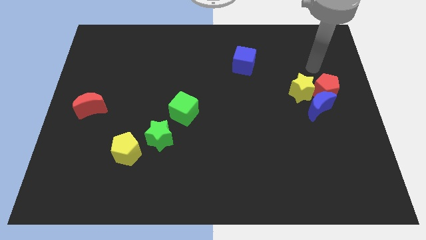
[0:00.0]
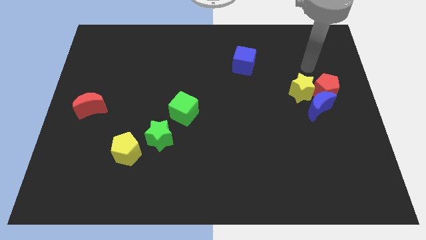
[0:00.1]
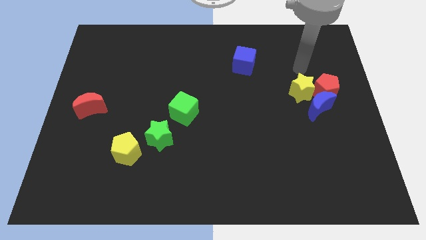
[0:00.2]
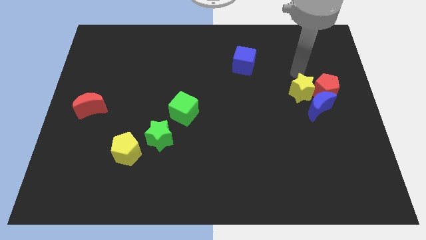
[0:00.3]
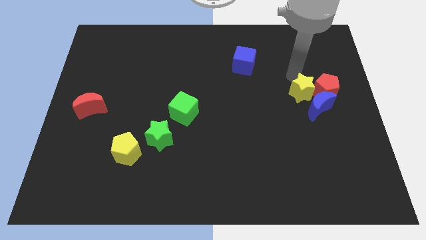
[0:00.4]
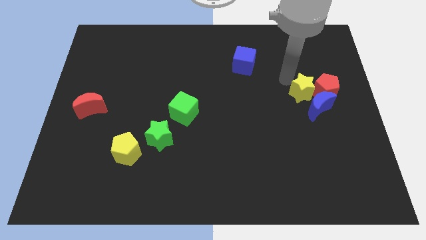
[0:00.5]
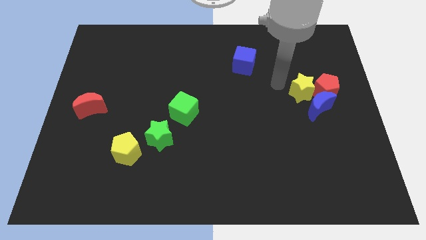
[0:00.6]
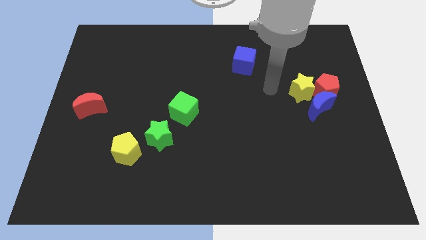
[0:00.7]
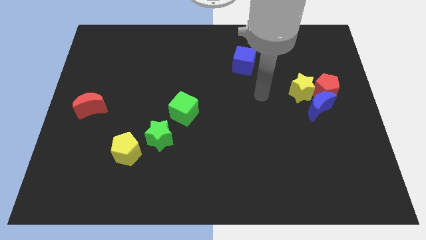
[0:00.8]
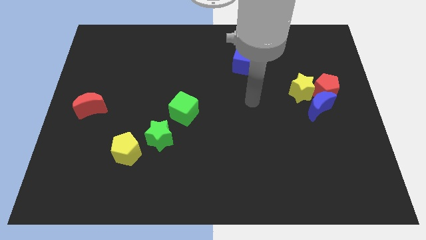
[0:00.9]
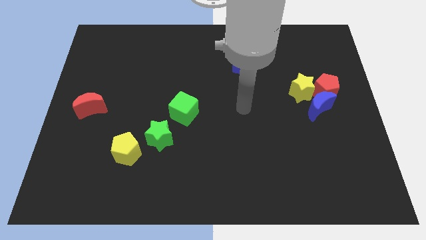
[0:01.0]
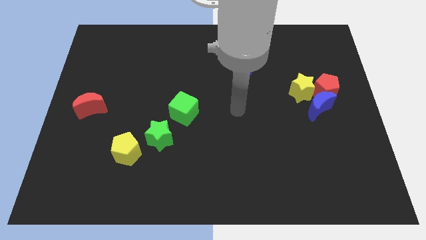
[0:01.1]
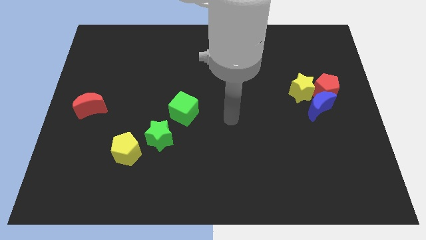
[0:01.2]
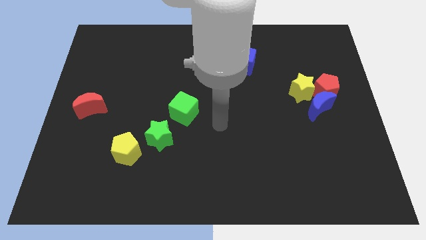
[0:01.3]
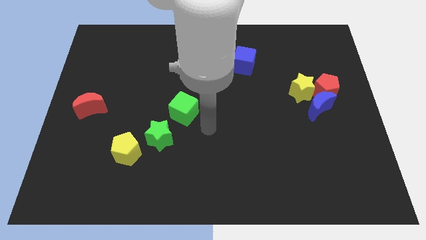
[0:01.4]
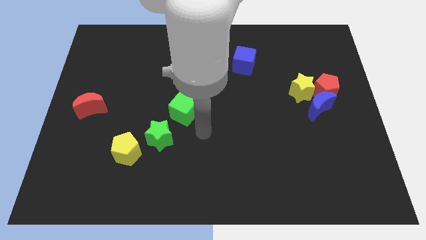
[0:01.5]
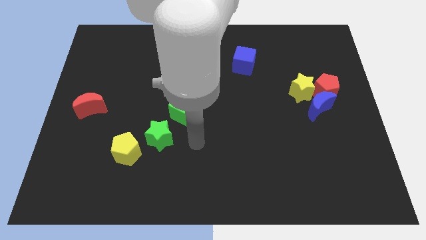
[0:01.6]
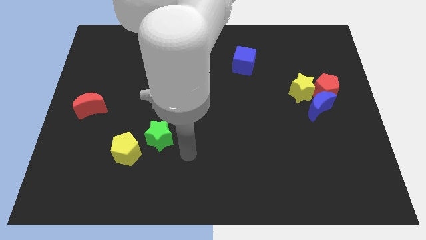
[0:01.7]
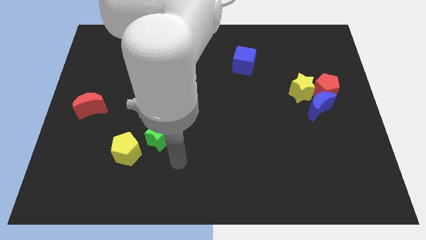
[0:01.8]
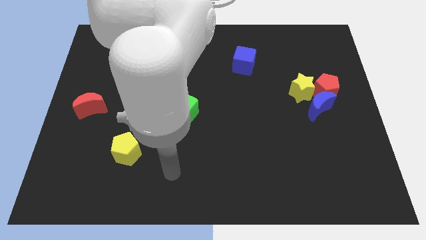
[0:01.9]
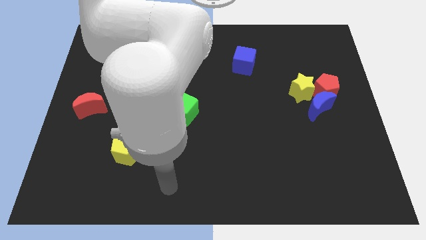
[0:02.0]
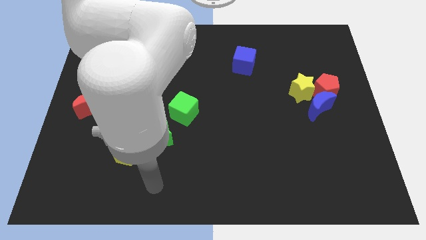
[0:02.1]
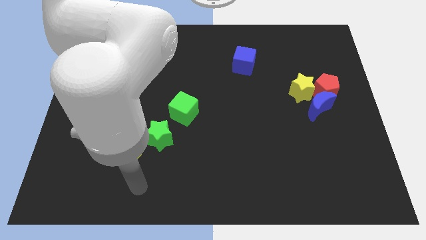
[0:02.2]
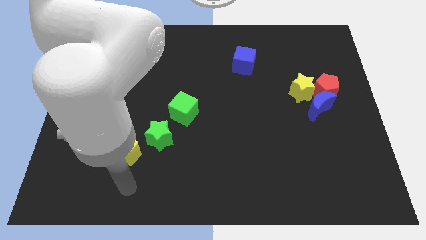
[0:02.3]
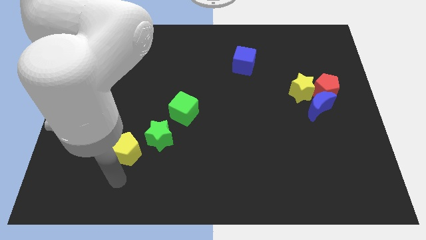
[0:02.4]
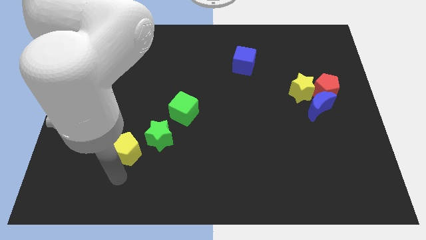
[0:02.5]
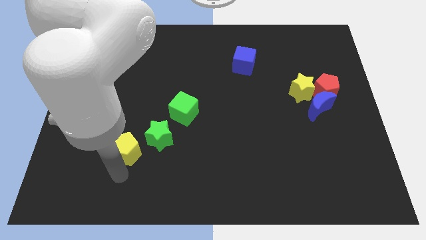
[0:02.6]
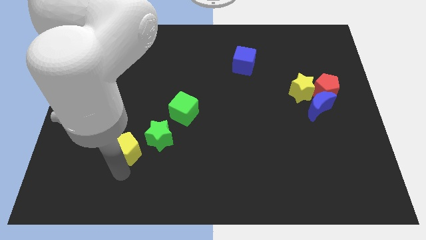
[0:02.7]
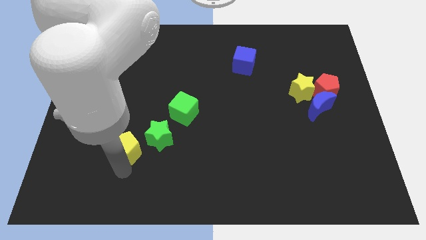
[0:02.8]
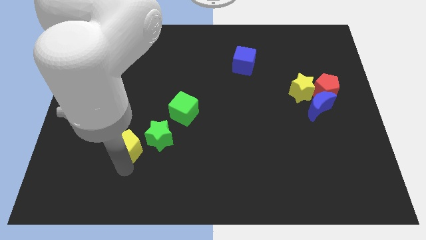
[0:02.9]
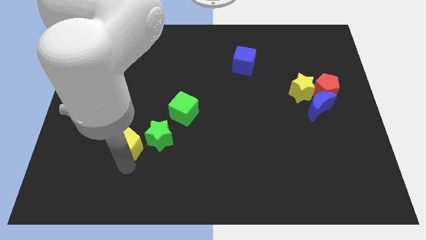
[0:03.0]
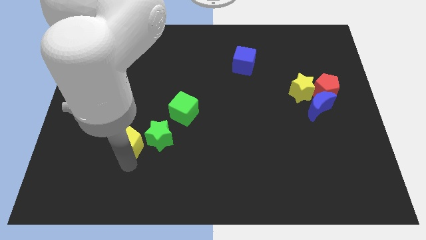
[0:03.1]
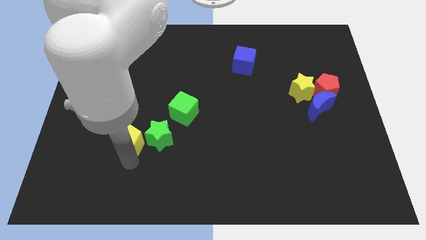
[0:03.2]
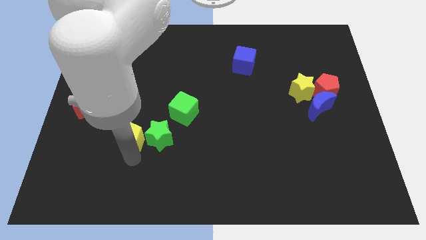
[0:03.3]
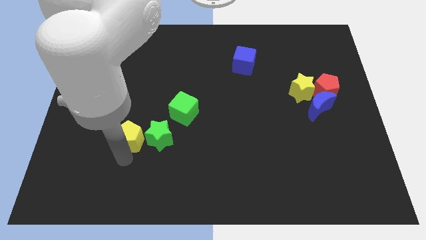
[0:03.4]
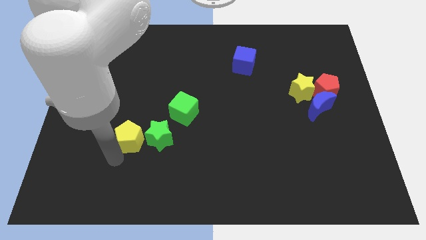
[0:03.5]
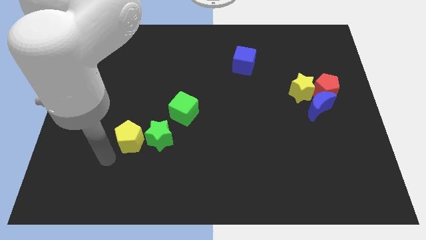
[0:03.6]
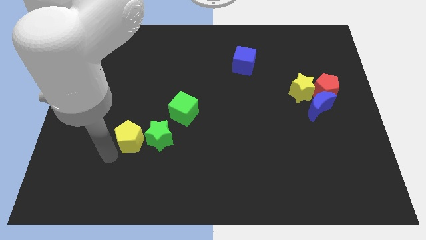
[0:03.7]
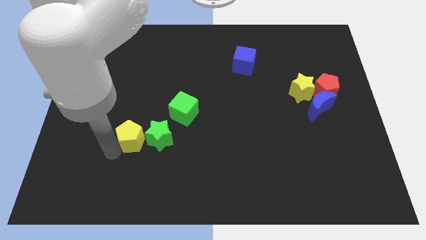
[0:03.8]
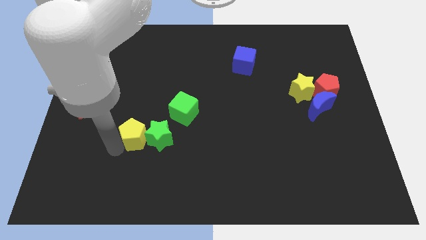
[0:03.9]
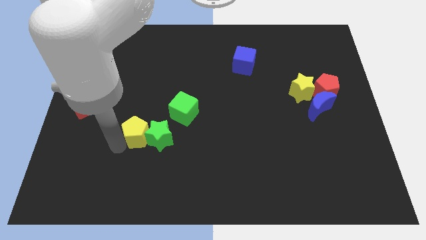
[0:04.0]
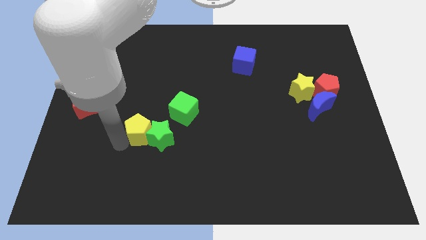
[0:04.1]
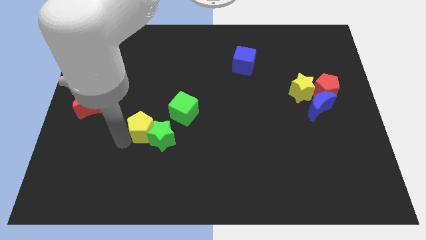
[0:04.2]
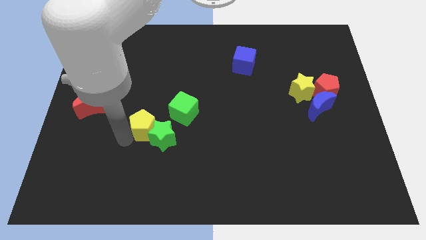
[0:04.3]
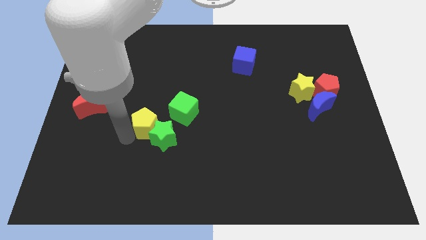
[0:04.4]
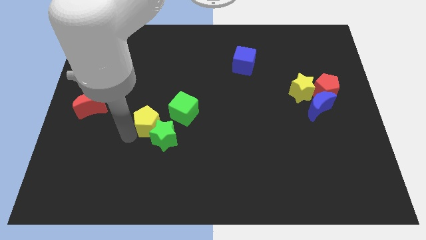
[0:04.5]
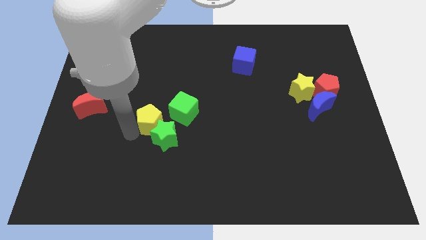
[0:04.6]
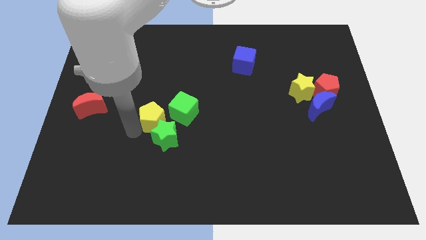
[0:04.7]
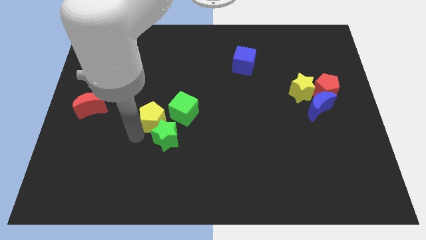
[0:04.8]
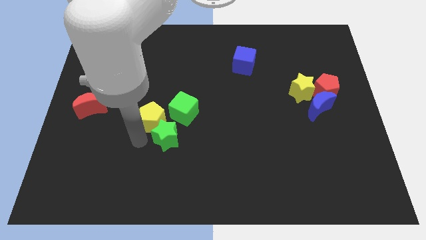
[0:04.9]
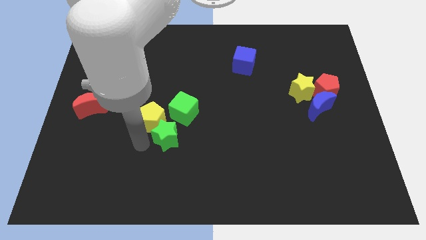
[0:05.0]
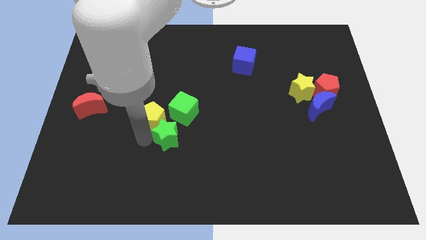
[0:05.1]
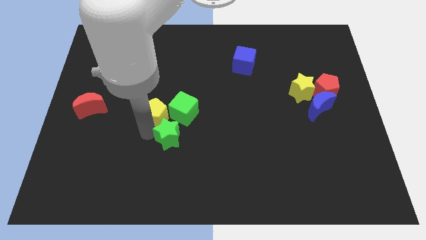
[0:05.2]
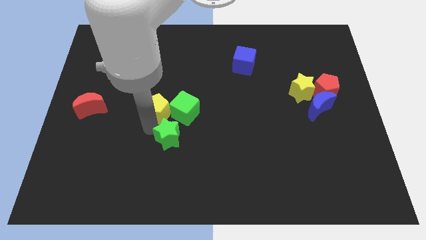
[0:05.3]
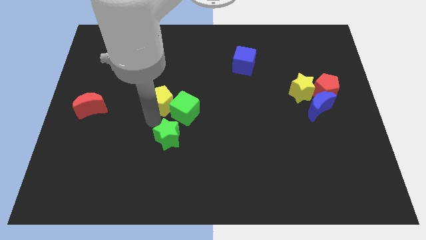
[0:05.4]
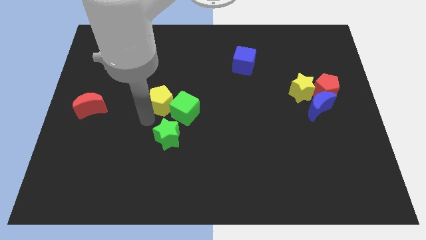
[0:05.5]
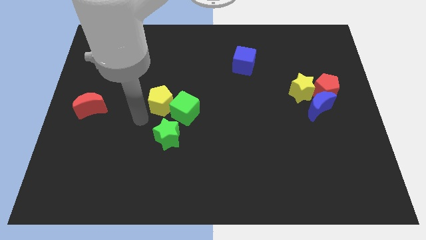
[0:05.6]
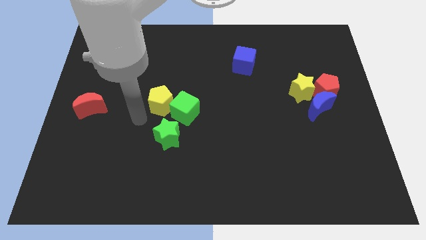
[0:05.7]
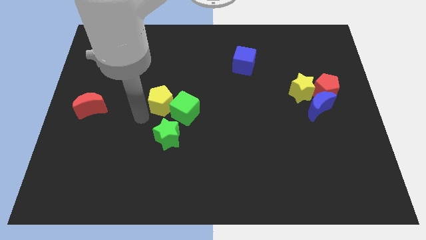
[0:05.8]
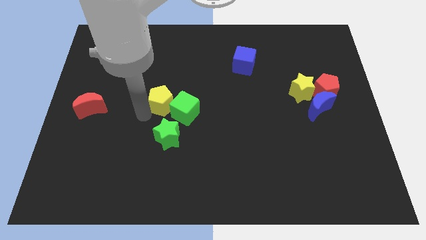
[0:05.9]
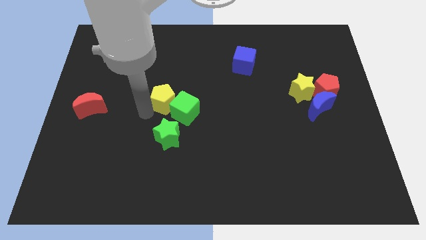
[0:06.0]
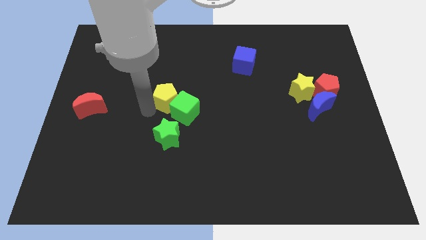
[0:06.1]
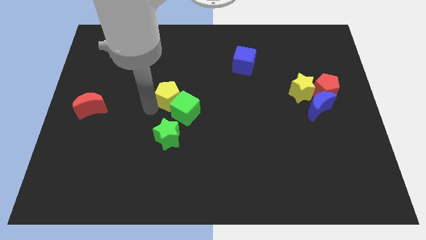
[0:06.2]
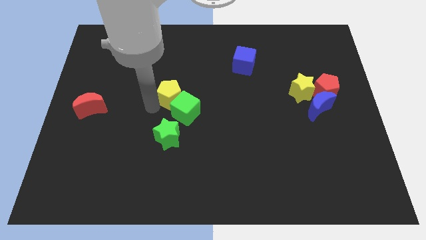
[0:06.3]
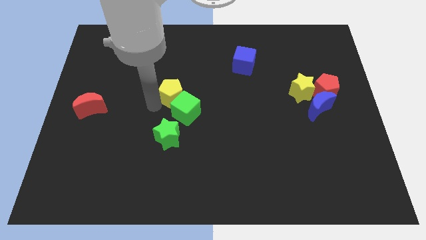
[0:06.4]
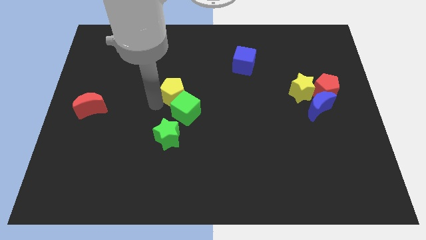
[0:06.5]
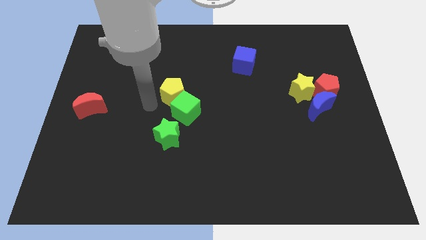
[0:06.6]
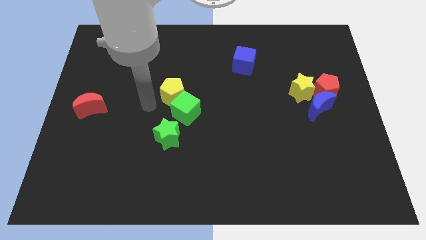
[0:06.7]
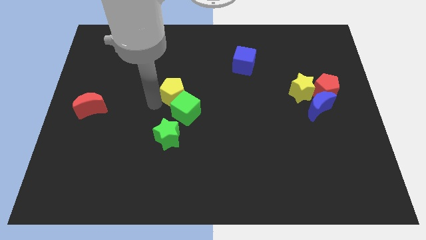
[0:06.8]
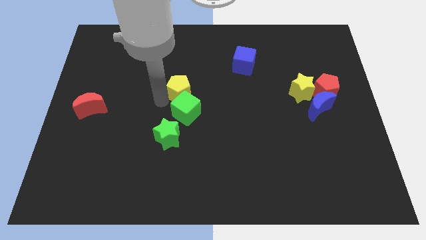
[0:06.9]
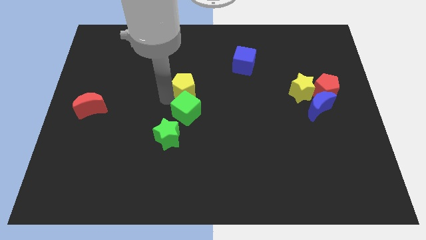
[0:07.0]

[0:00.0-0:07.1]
move the yellow pentagon diagonally up and to the right

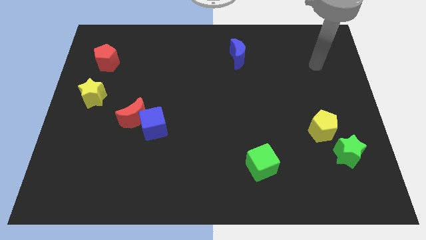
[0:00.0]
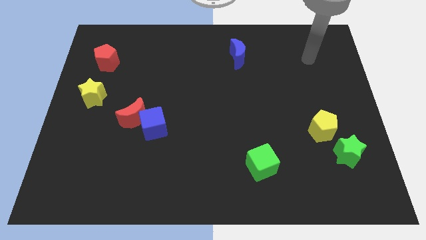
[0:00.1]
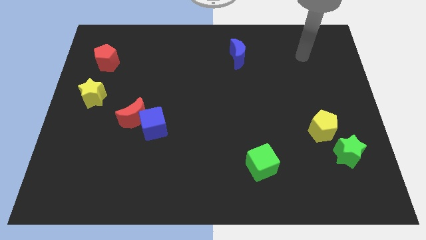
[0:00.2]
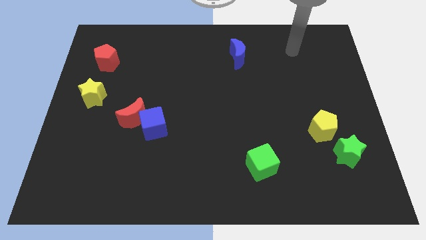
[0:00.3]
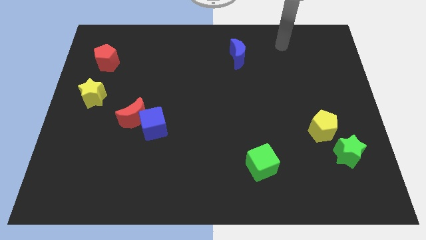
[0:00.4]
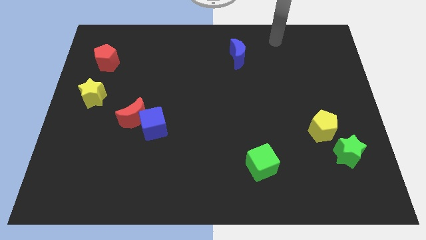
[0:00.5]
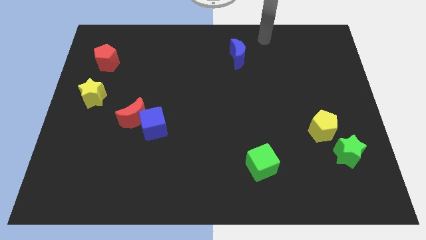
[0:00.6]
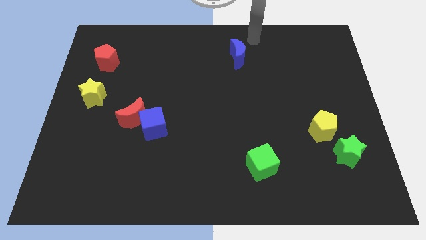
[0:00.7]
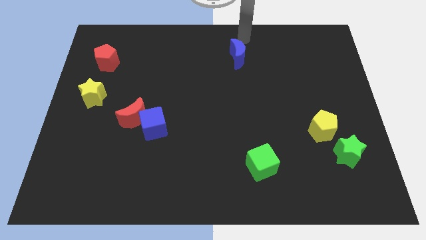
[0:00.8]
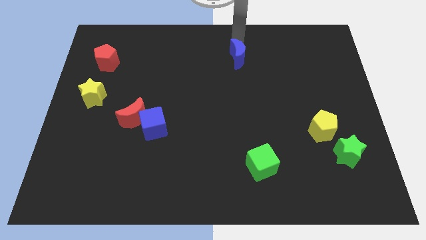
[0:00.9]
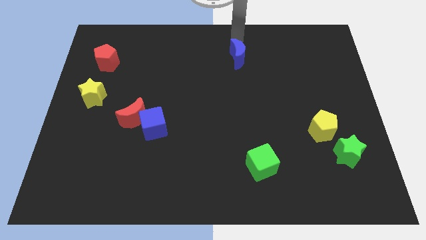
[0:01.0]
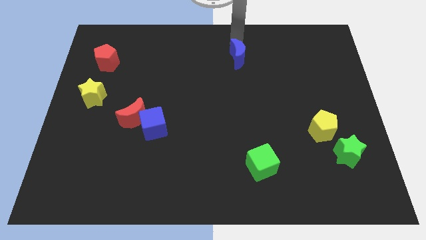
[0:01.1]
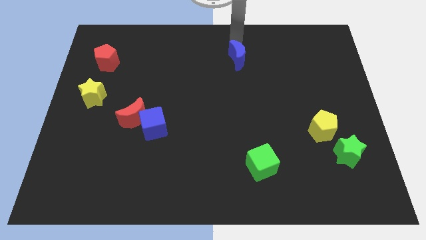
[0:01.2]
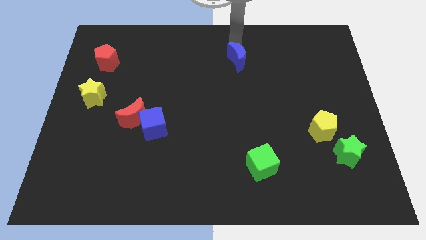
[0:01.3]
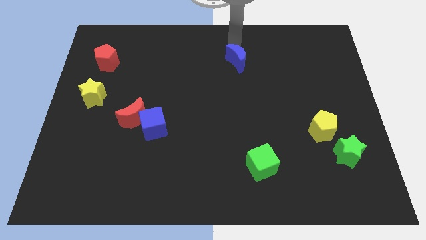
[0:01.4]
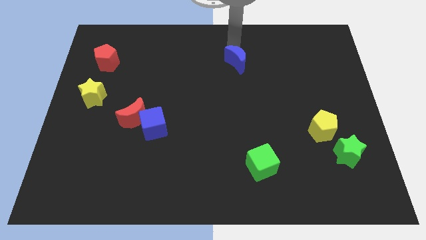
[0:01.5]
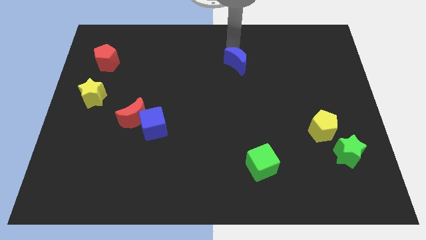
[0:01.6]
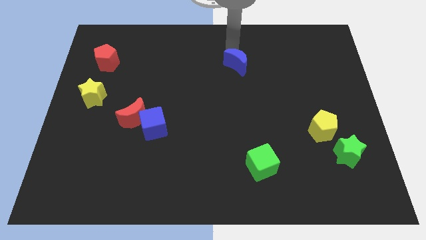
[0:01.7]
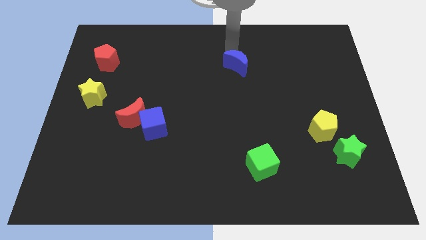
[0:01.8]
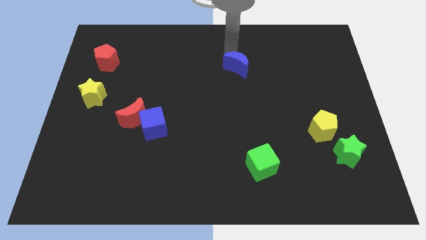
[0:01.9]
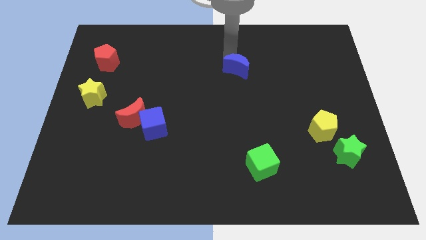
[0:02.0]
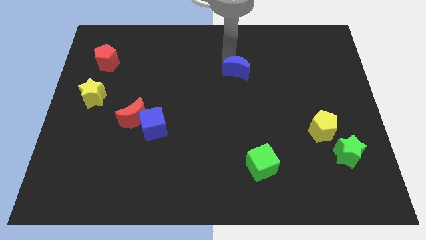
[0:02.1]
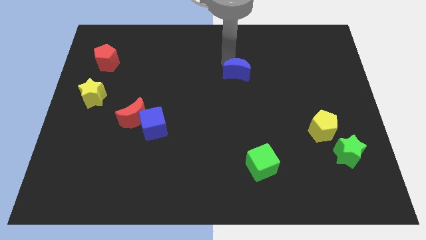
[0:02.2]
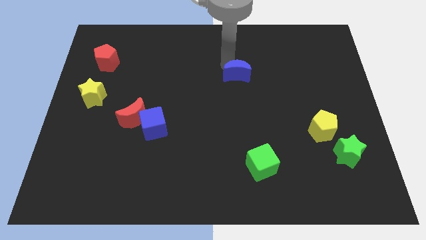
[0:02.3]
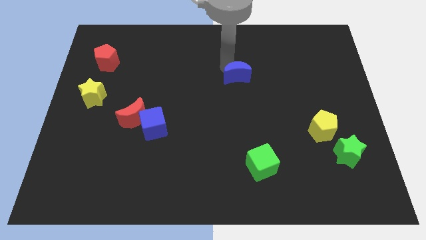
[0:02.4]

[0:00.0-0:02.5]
slightly move the blue moon down
